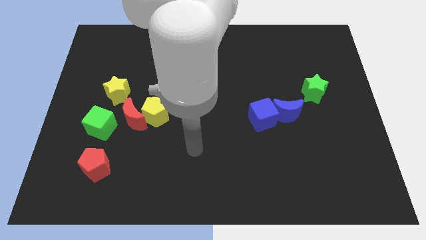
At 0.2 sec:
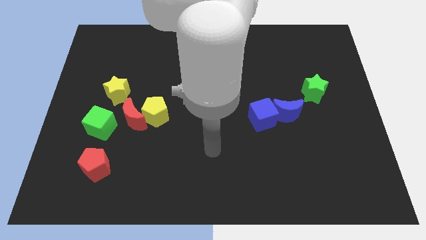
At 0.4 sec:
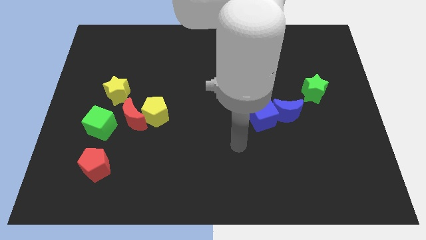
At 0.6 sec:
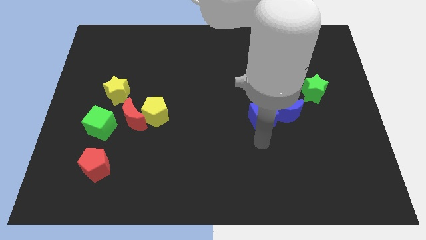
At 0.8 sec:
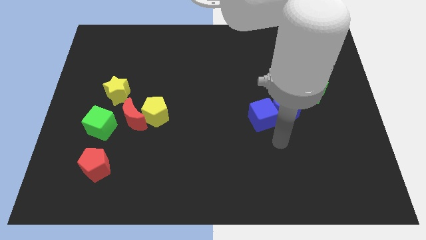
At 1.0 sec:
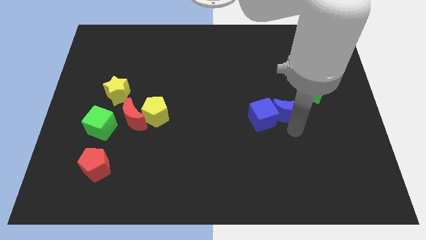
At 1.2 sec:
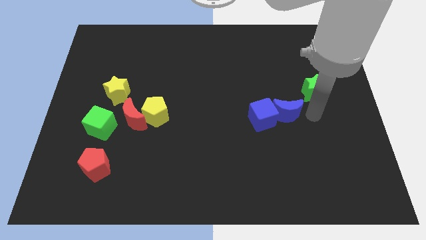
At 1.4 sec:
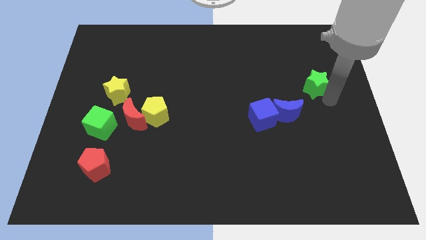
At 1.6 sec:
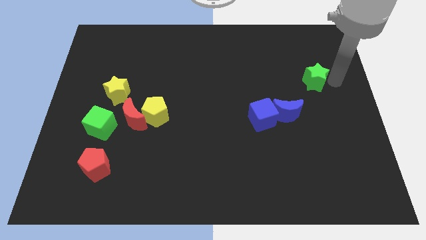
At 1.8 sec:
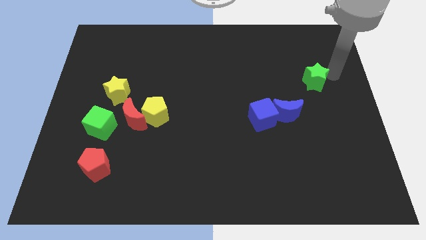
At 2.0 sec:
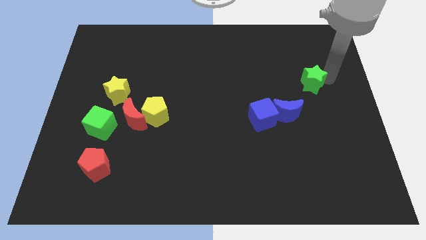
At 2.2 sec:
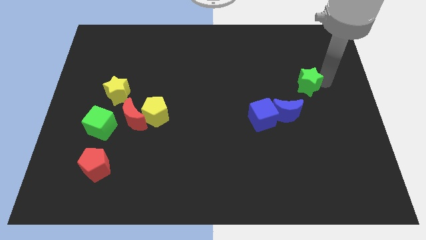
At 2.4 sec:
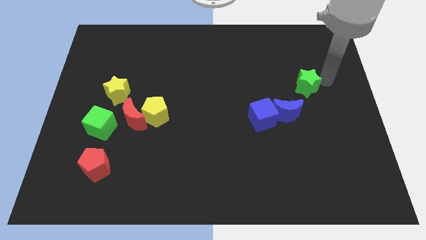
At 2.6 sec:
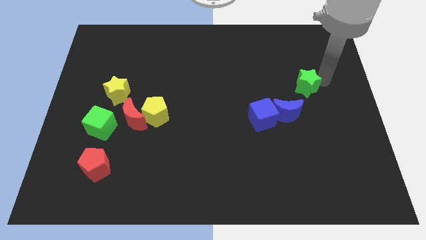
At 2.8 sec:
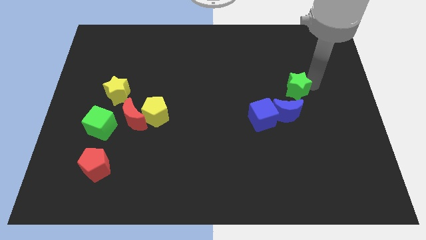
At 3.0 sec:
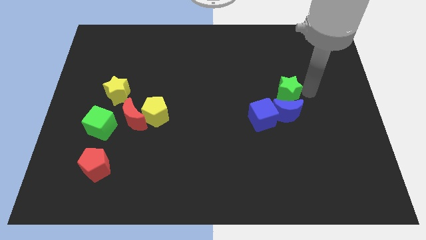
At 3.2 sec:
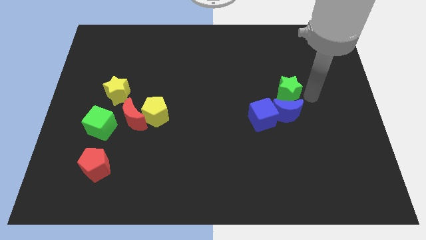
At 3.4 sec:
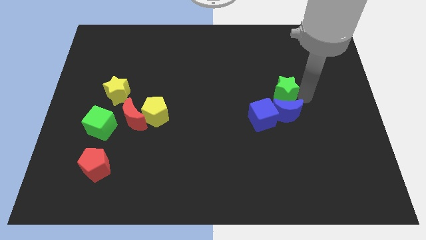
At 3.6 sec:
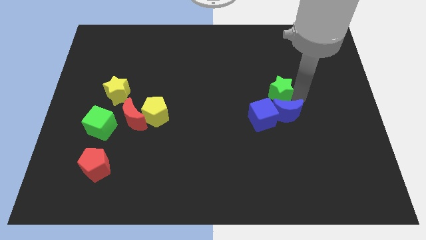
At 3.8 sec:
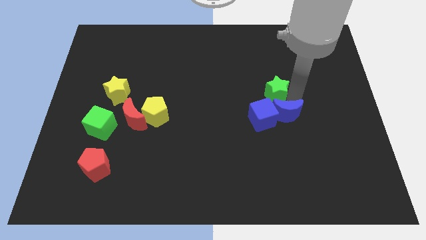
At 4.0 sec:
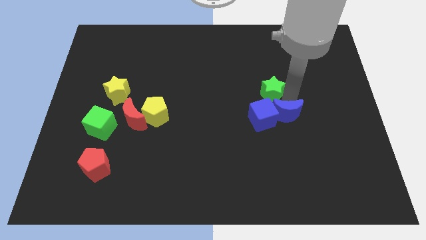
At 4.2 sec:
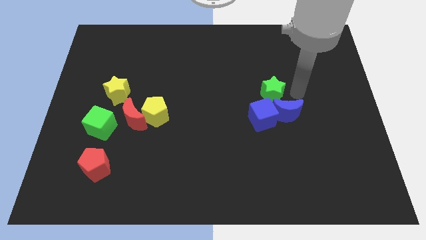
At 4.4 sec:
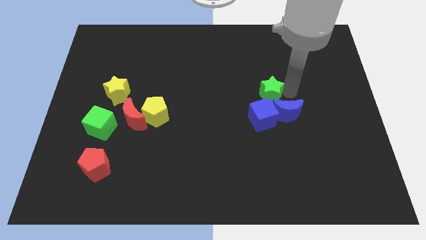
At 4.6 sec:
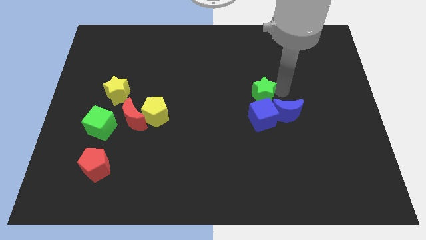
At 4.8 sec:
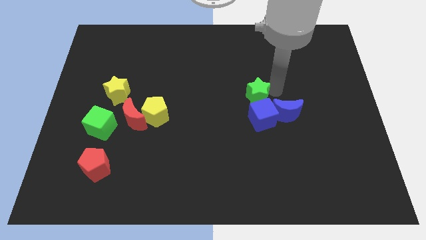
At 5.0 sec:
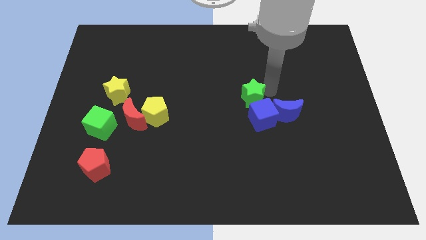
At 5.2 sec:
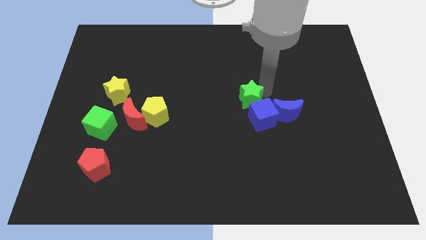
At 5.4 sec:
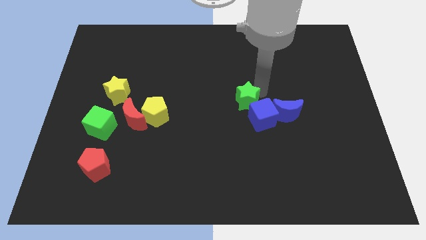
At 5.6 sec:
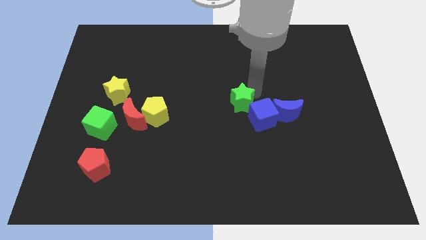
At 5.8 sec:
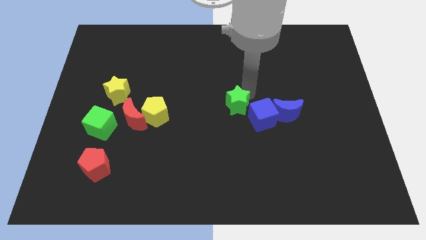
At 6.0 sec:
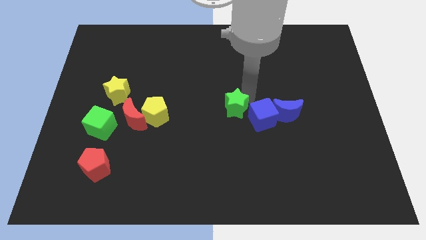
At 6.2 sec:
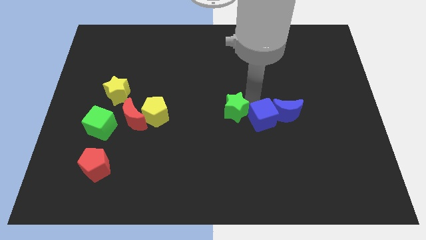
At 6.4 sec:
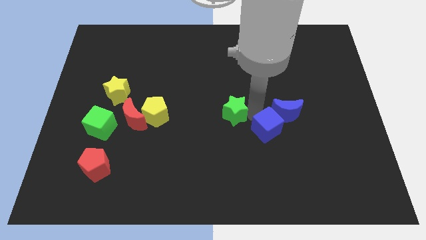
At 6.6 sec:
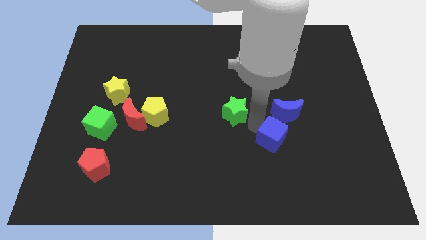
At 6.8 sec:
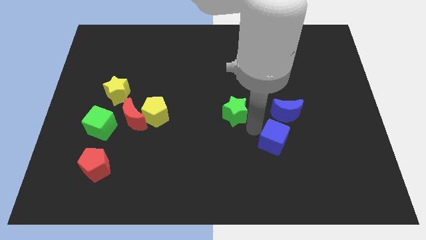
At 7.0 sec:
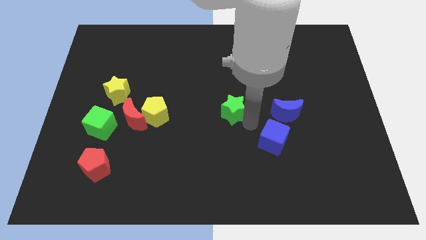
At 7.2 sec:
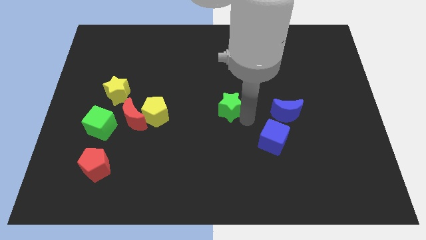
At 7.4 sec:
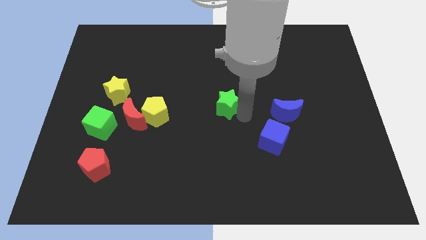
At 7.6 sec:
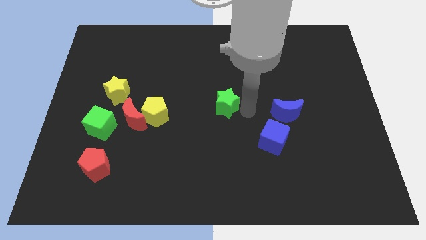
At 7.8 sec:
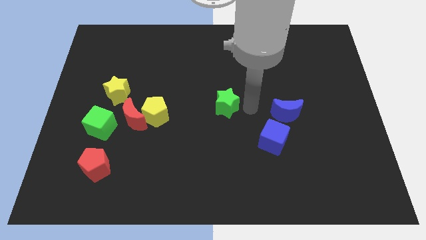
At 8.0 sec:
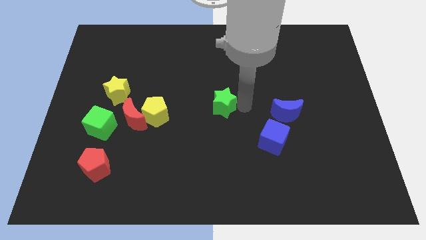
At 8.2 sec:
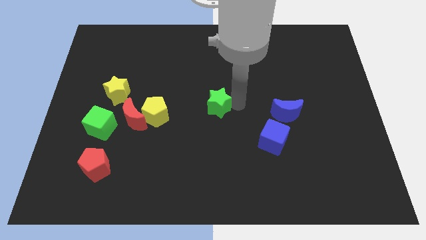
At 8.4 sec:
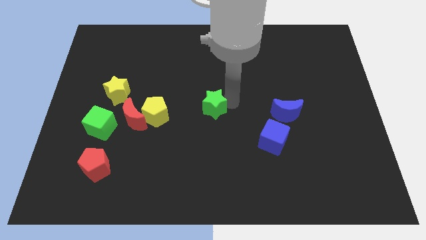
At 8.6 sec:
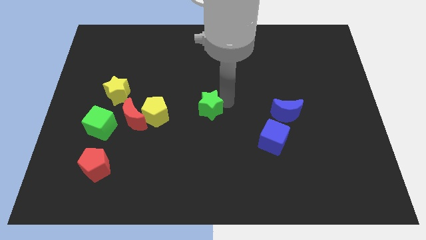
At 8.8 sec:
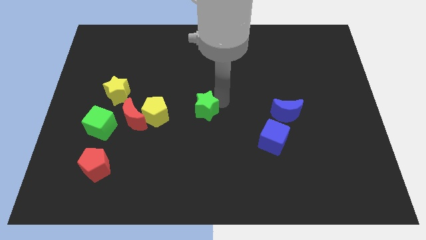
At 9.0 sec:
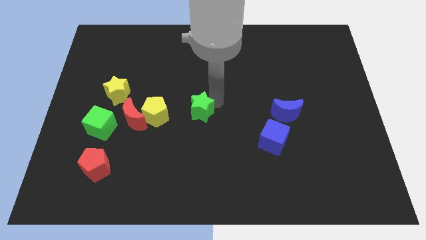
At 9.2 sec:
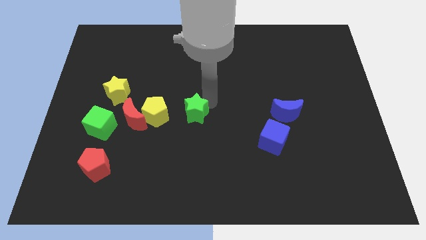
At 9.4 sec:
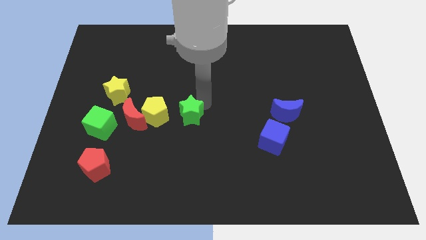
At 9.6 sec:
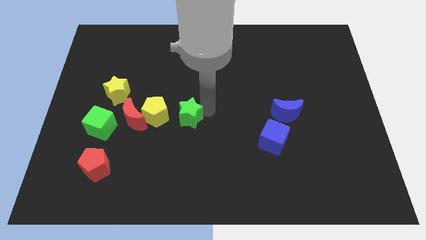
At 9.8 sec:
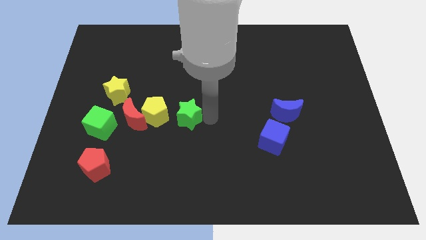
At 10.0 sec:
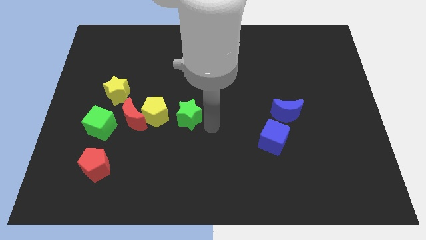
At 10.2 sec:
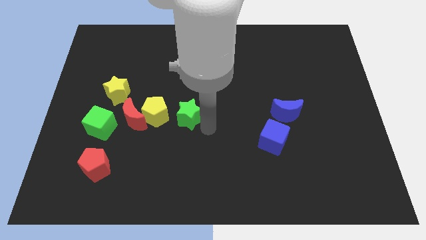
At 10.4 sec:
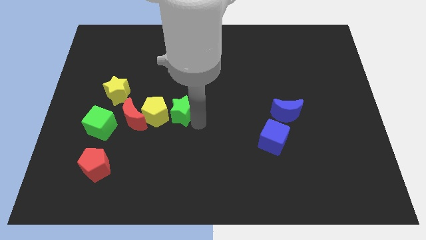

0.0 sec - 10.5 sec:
move the green star to the yellow pentagon

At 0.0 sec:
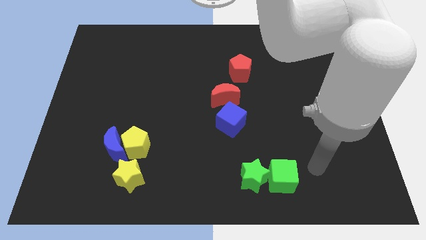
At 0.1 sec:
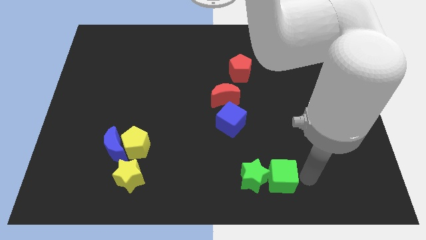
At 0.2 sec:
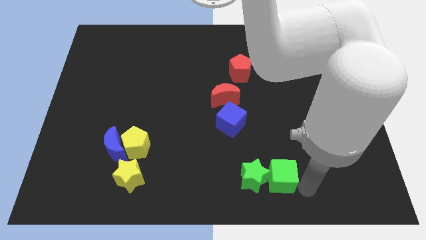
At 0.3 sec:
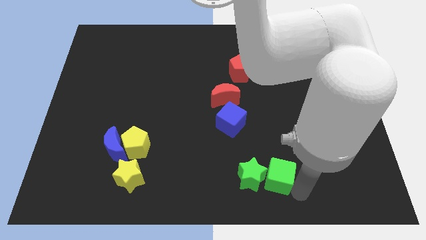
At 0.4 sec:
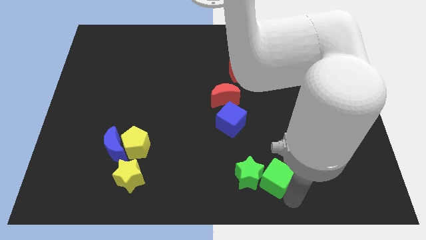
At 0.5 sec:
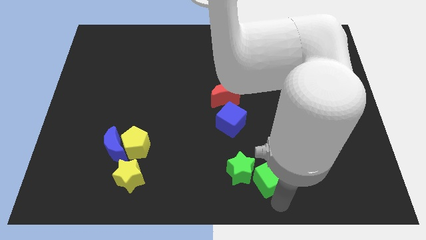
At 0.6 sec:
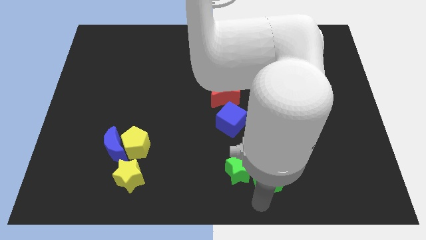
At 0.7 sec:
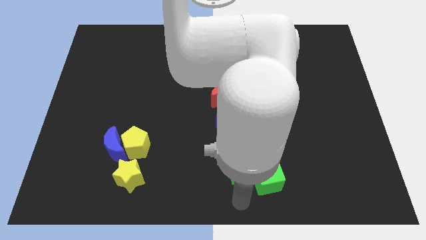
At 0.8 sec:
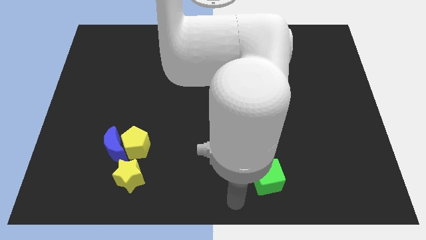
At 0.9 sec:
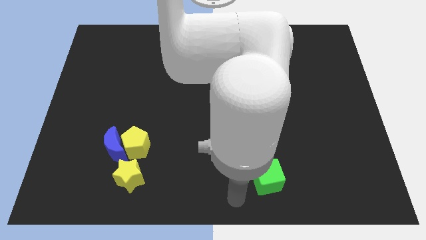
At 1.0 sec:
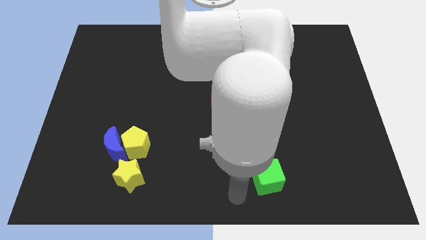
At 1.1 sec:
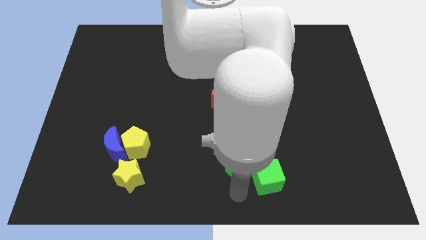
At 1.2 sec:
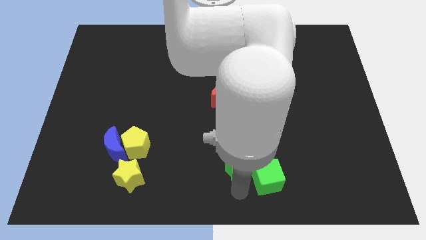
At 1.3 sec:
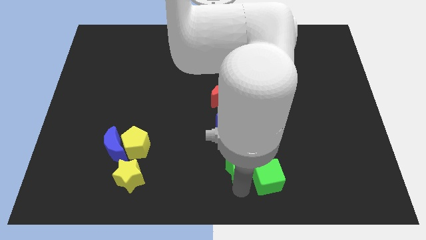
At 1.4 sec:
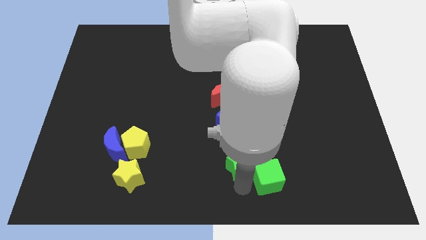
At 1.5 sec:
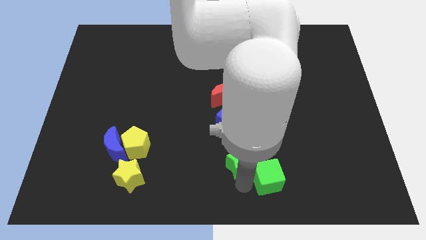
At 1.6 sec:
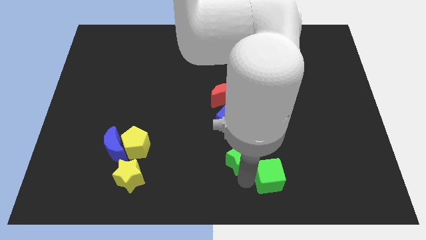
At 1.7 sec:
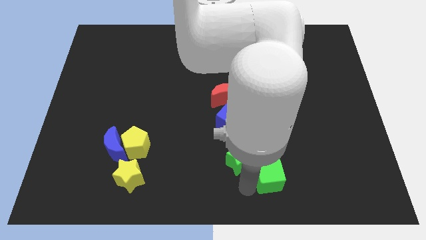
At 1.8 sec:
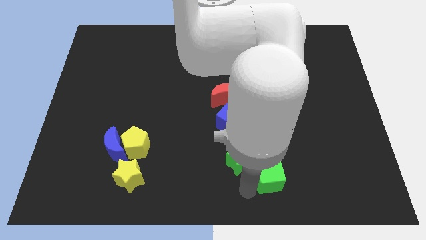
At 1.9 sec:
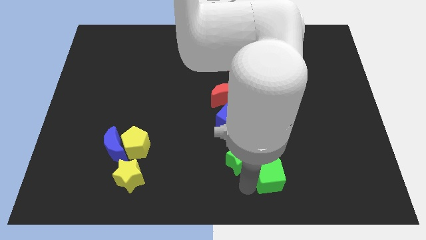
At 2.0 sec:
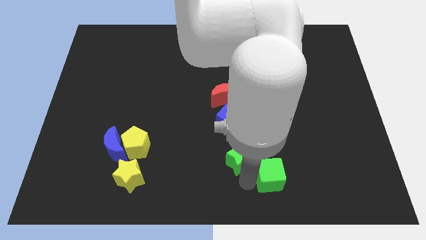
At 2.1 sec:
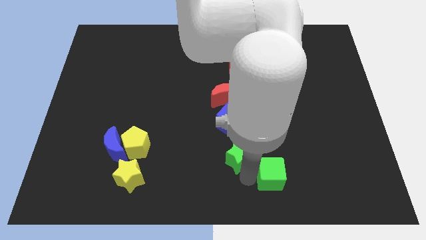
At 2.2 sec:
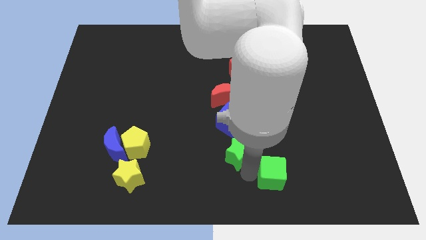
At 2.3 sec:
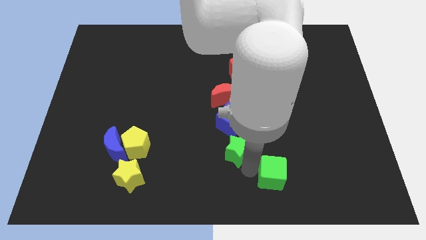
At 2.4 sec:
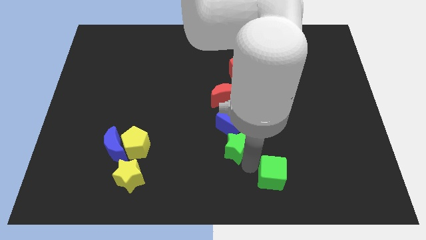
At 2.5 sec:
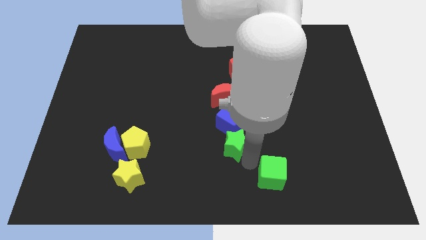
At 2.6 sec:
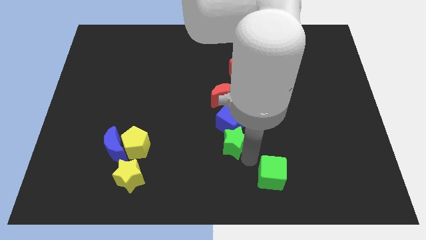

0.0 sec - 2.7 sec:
move the green star close to the blue cube

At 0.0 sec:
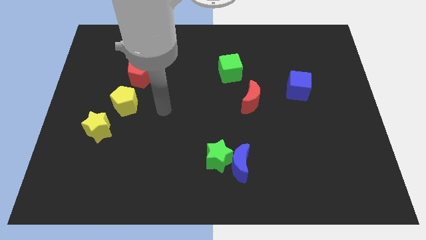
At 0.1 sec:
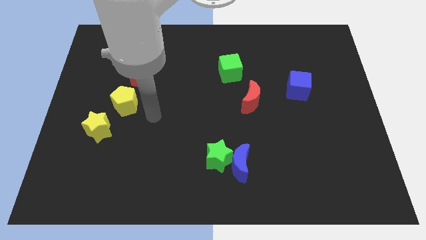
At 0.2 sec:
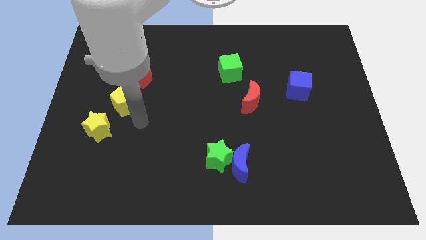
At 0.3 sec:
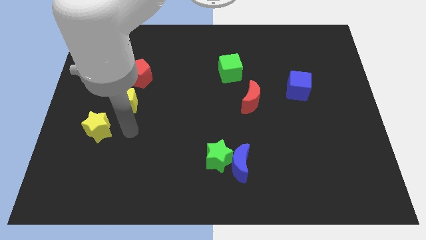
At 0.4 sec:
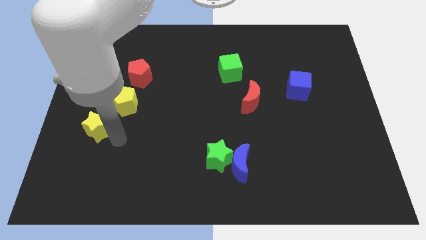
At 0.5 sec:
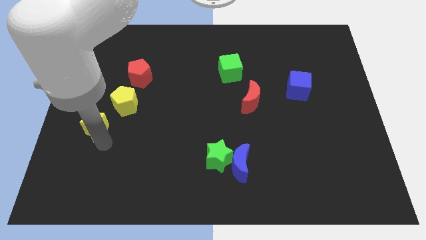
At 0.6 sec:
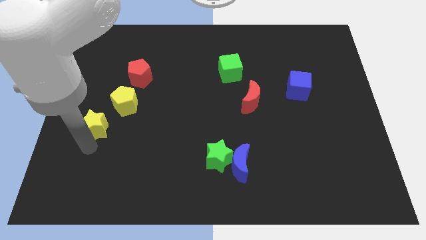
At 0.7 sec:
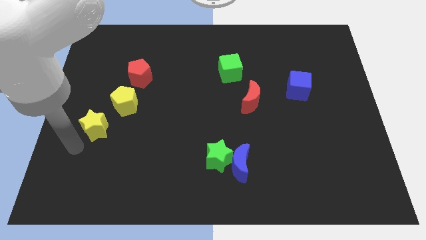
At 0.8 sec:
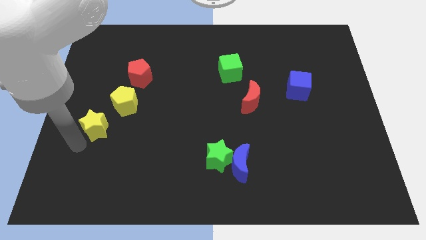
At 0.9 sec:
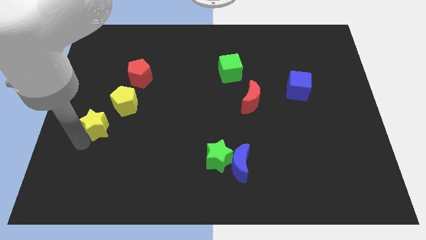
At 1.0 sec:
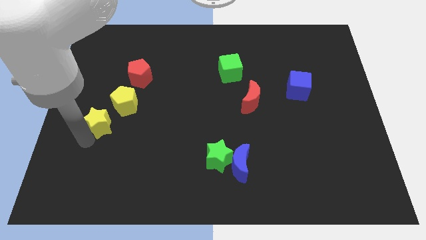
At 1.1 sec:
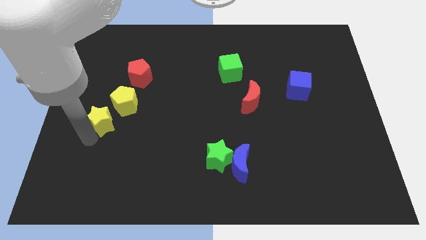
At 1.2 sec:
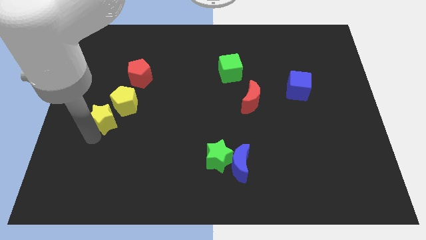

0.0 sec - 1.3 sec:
move the yellow star next to the yellow pentagon
